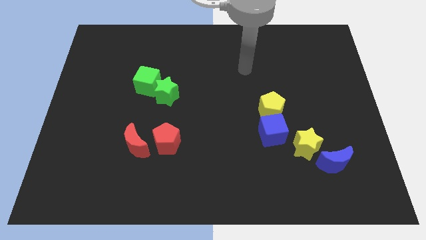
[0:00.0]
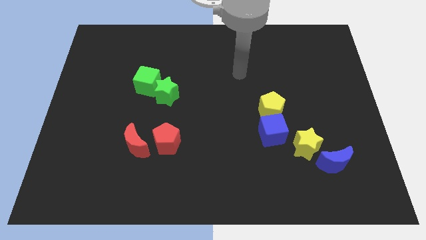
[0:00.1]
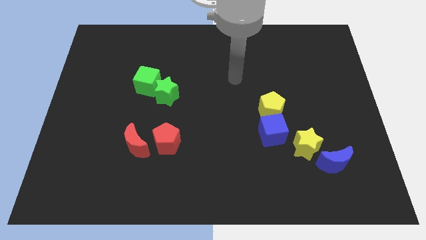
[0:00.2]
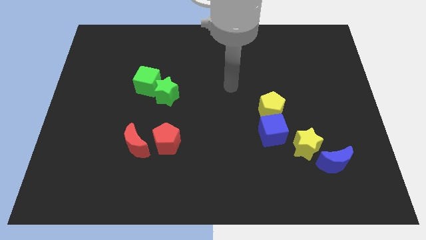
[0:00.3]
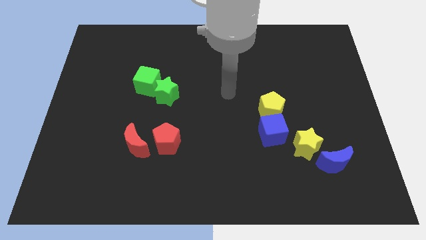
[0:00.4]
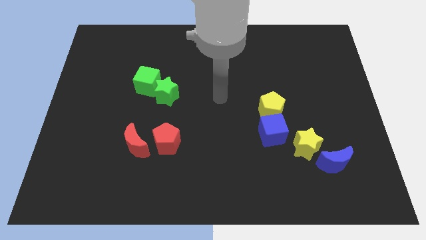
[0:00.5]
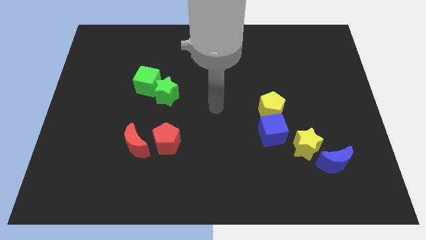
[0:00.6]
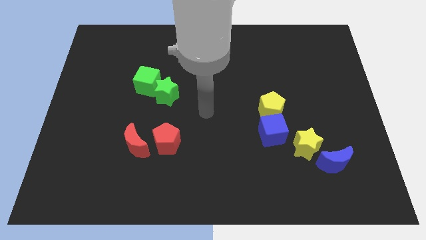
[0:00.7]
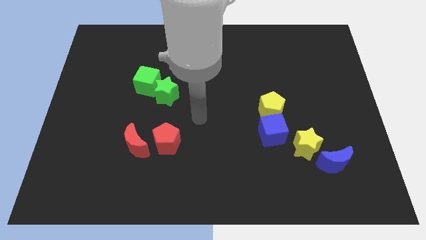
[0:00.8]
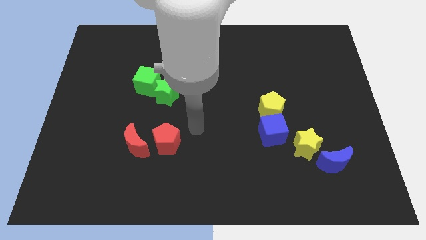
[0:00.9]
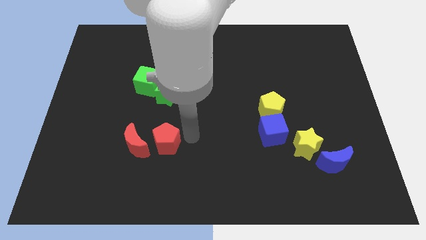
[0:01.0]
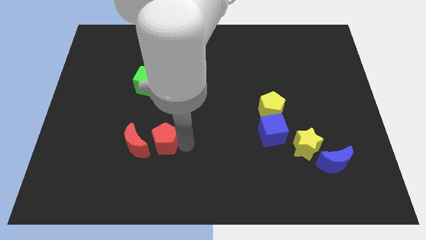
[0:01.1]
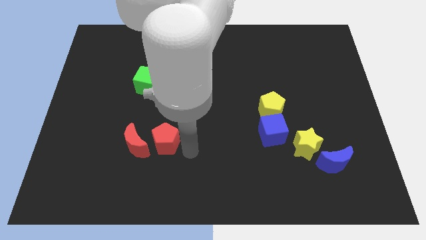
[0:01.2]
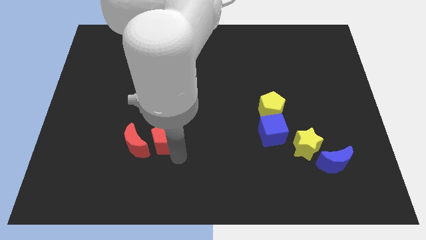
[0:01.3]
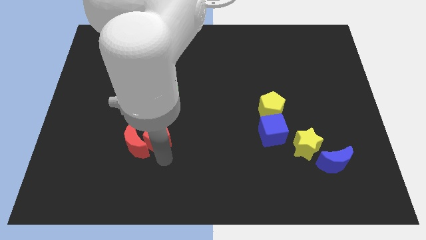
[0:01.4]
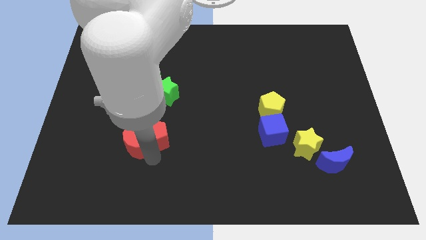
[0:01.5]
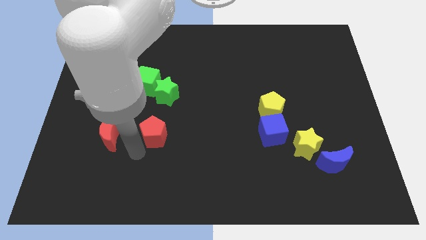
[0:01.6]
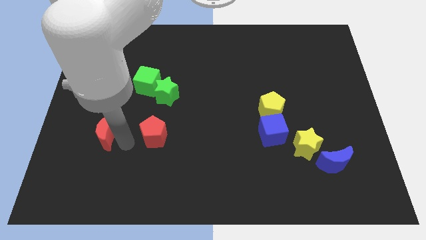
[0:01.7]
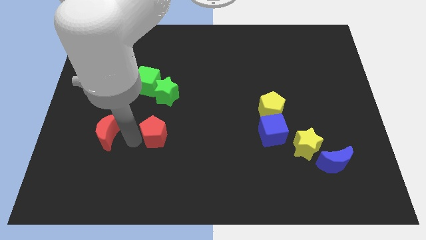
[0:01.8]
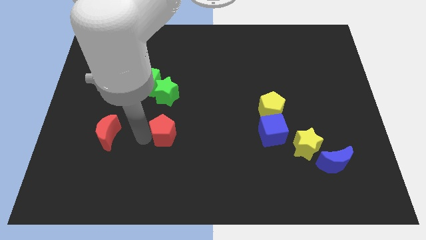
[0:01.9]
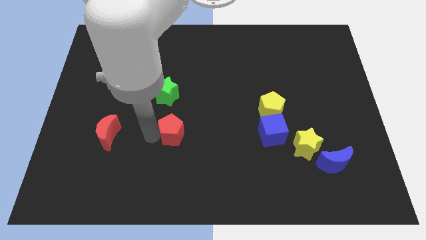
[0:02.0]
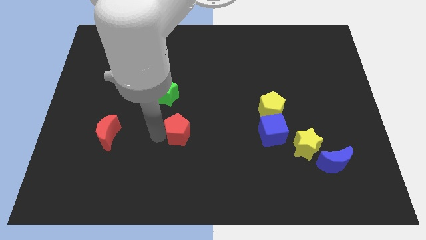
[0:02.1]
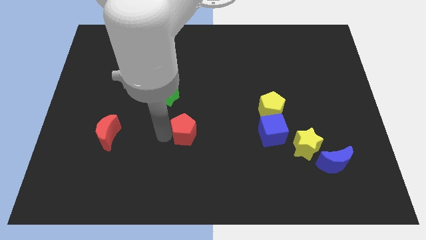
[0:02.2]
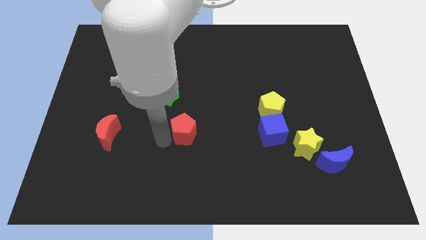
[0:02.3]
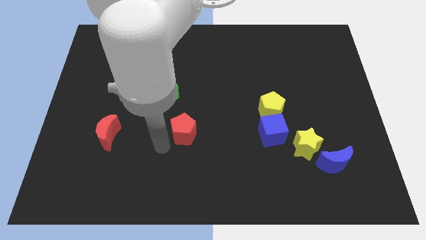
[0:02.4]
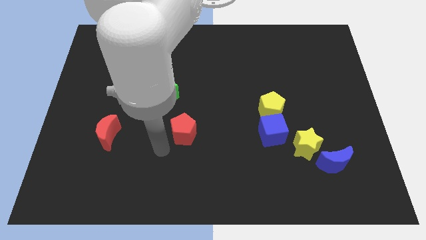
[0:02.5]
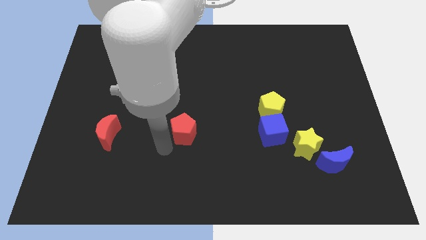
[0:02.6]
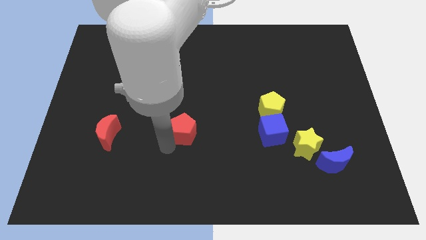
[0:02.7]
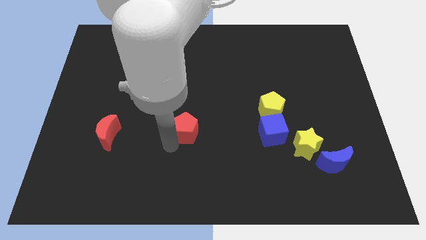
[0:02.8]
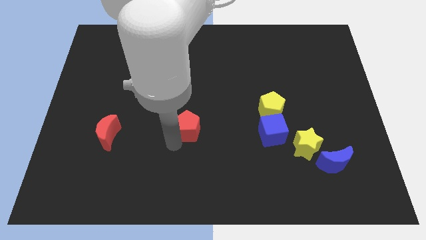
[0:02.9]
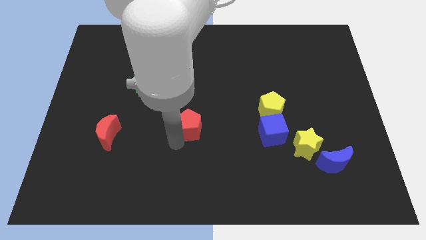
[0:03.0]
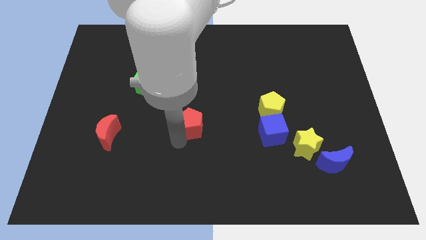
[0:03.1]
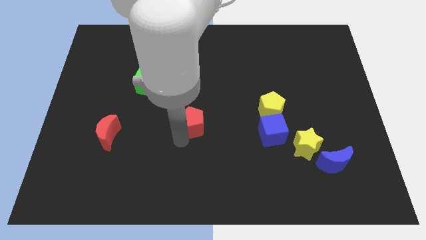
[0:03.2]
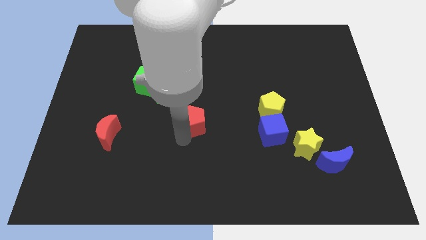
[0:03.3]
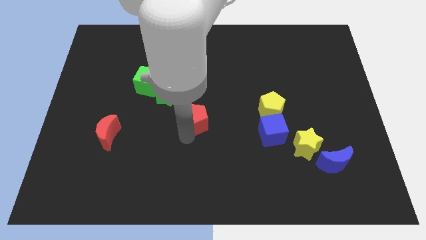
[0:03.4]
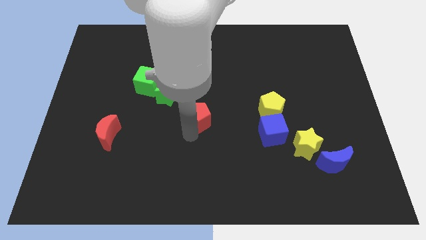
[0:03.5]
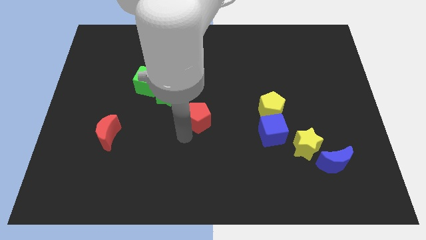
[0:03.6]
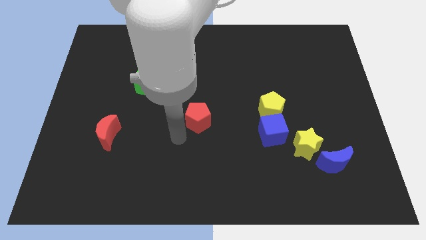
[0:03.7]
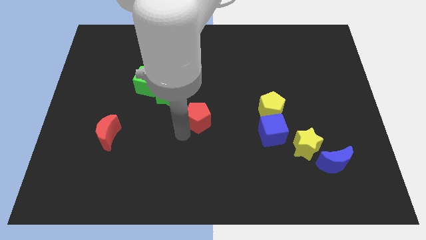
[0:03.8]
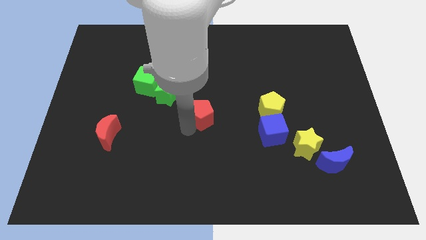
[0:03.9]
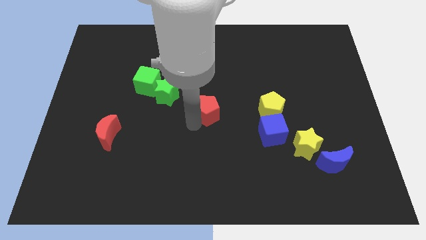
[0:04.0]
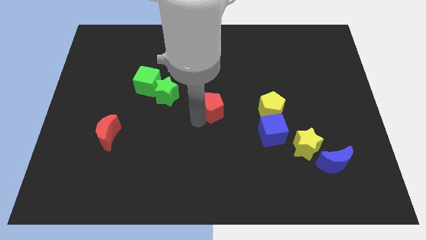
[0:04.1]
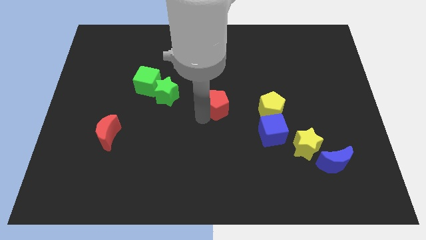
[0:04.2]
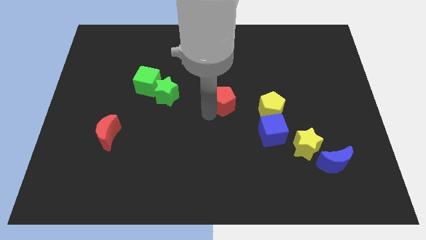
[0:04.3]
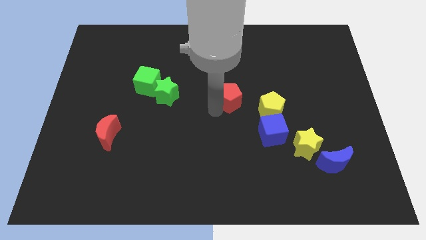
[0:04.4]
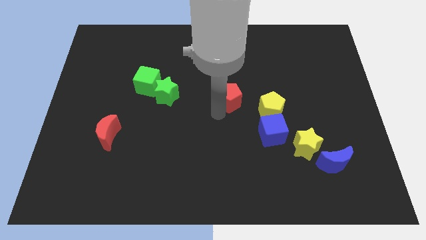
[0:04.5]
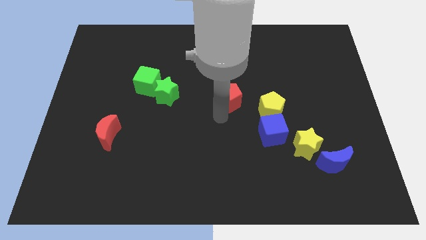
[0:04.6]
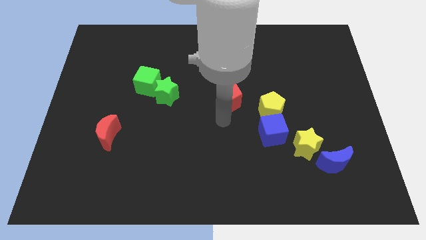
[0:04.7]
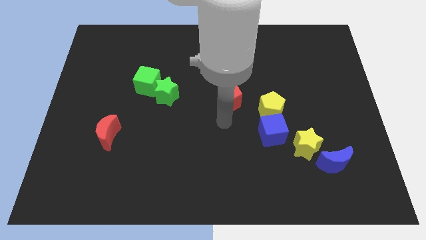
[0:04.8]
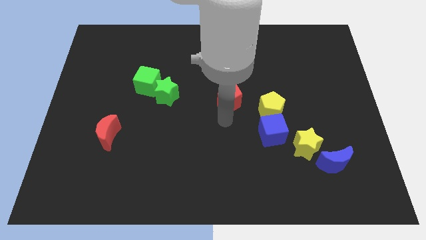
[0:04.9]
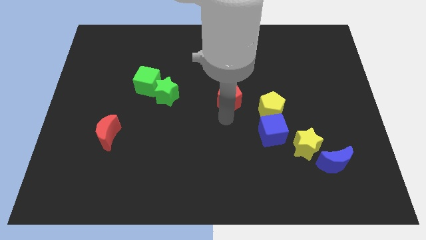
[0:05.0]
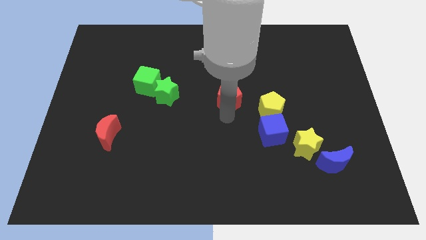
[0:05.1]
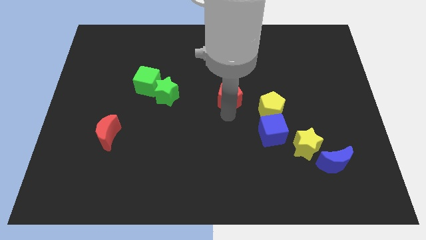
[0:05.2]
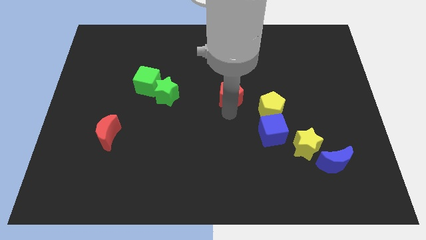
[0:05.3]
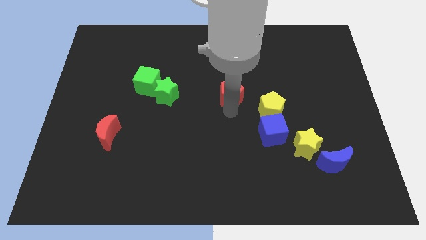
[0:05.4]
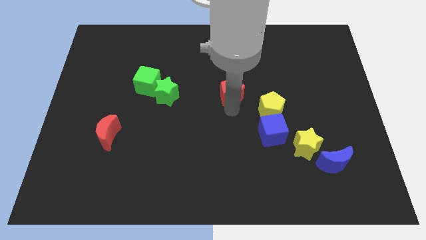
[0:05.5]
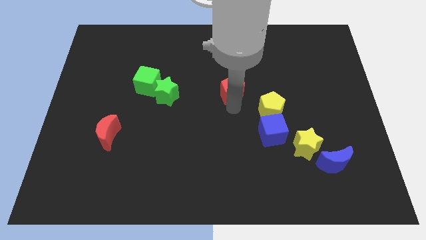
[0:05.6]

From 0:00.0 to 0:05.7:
slide the red pentagon upwards and right diagonally

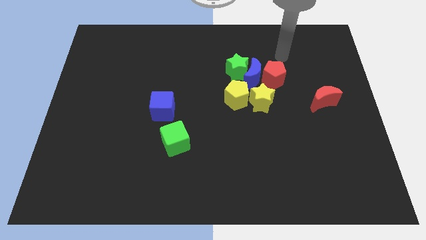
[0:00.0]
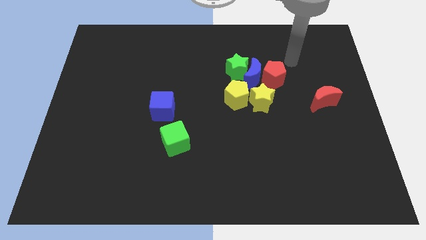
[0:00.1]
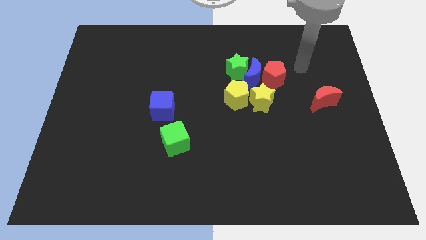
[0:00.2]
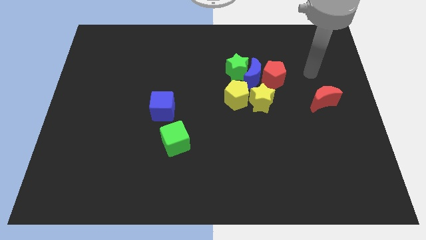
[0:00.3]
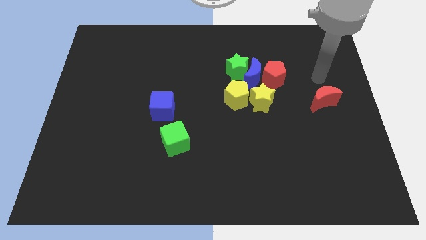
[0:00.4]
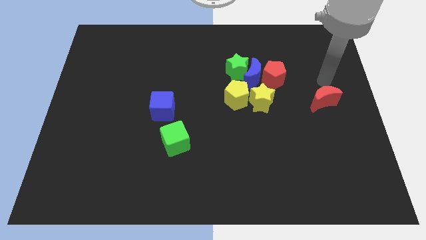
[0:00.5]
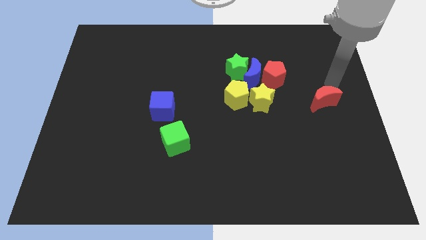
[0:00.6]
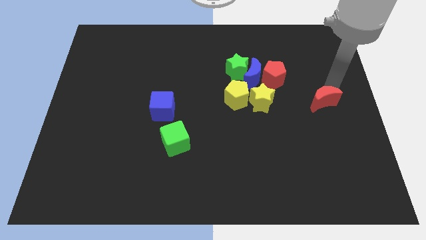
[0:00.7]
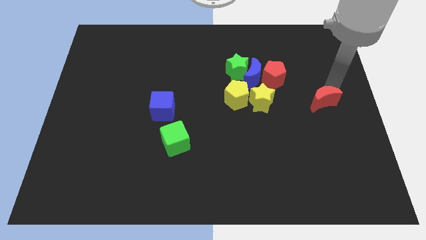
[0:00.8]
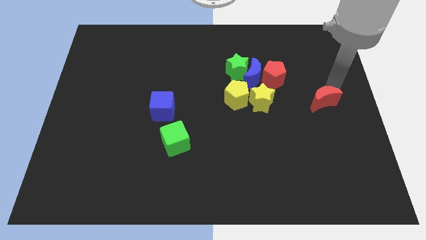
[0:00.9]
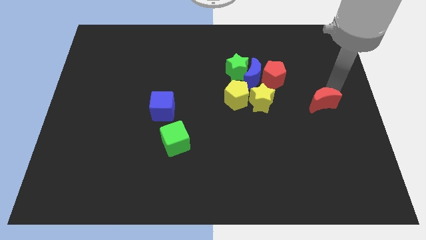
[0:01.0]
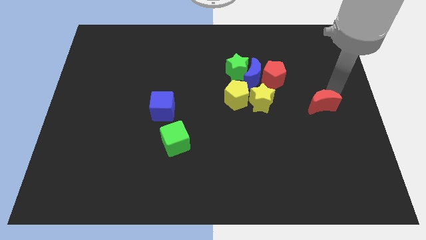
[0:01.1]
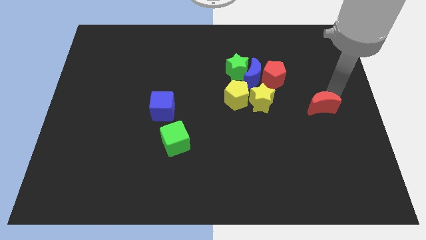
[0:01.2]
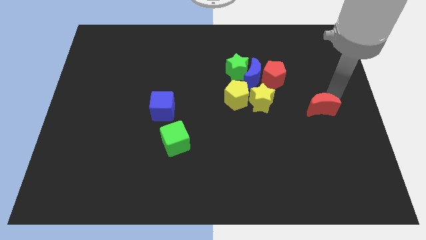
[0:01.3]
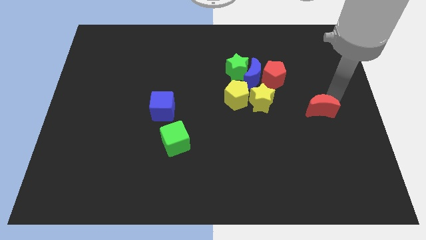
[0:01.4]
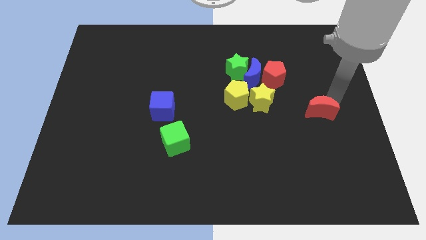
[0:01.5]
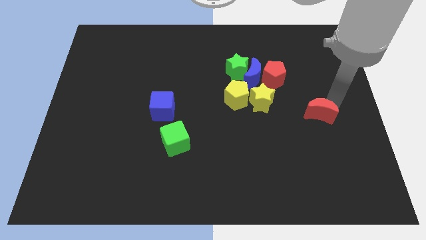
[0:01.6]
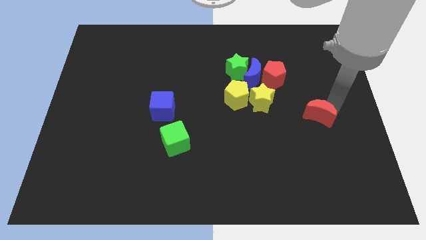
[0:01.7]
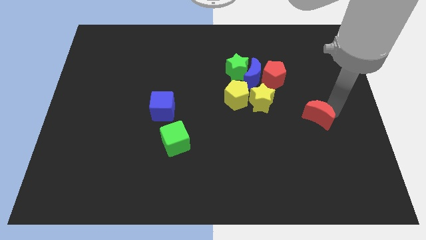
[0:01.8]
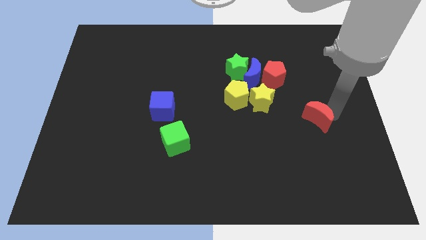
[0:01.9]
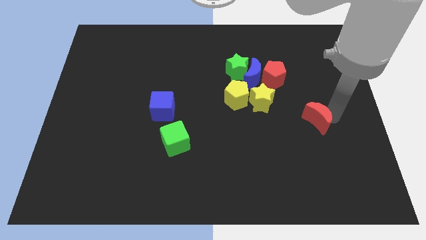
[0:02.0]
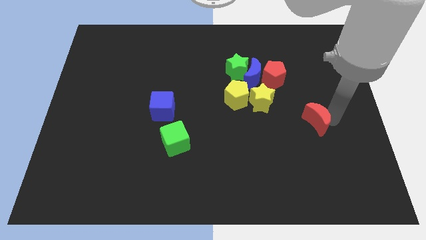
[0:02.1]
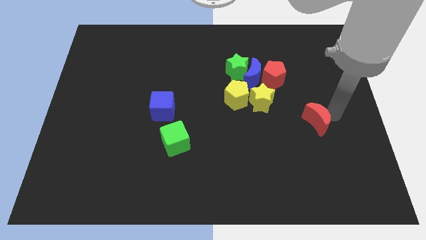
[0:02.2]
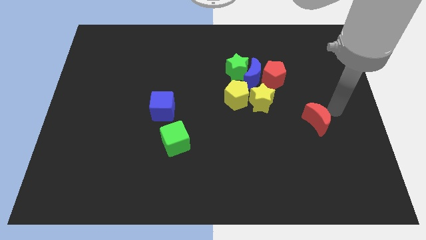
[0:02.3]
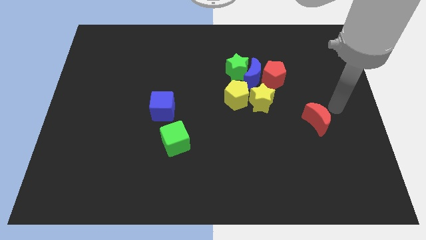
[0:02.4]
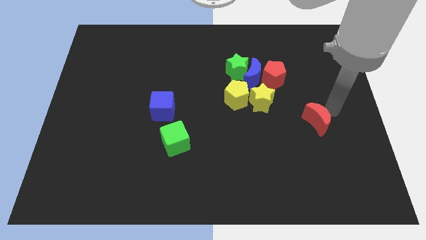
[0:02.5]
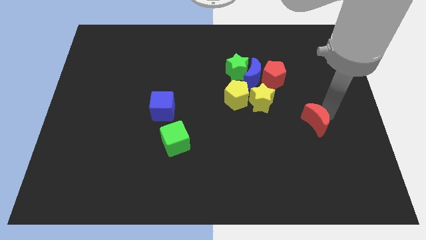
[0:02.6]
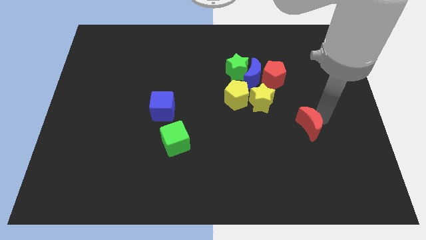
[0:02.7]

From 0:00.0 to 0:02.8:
push the red moon down and left diagonally somewhat
